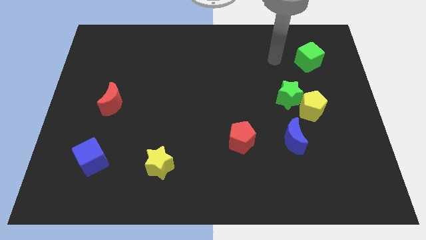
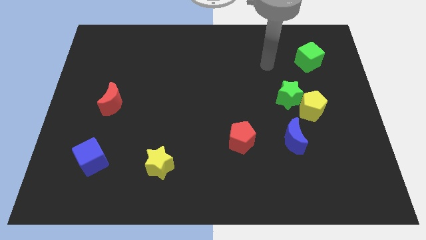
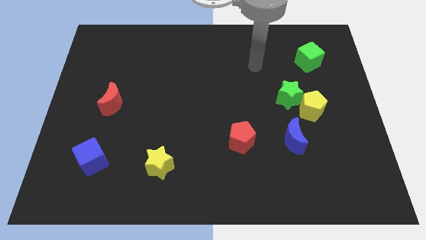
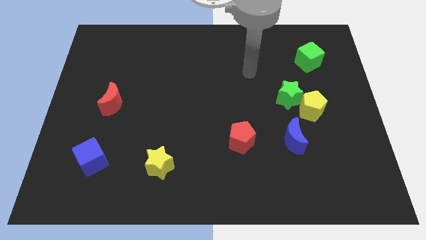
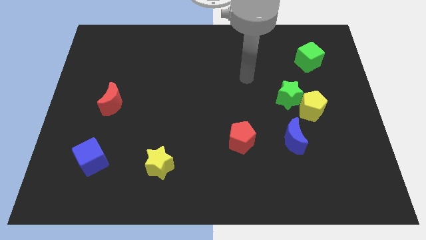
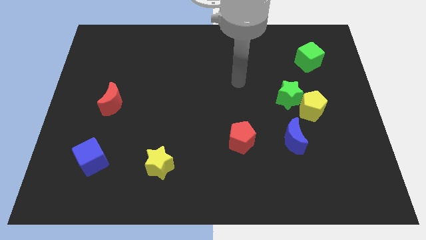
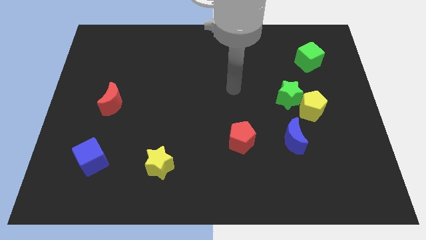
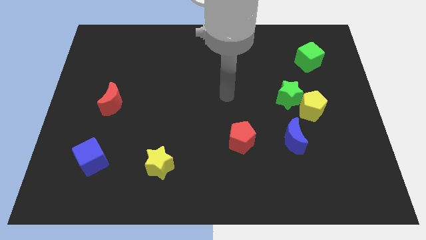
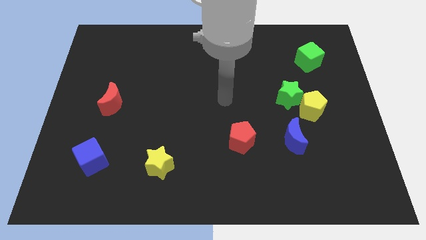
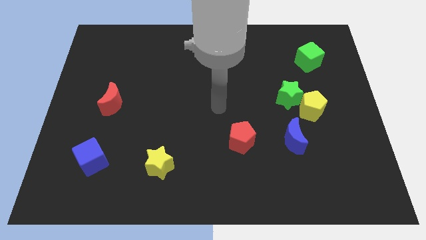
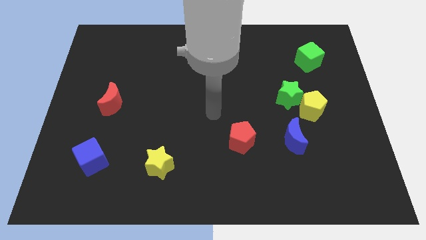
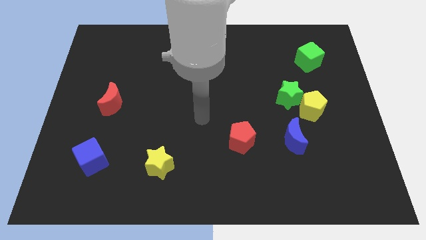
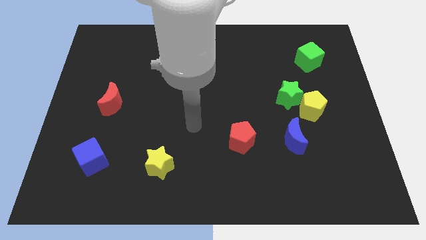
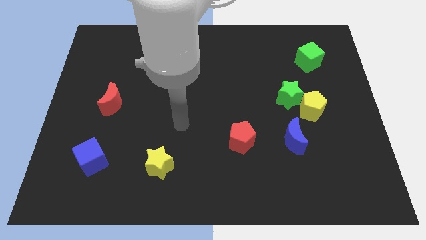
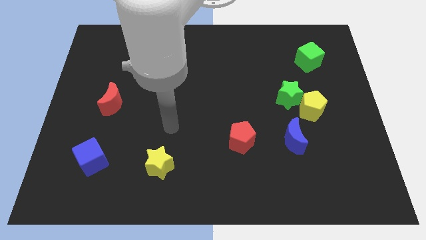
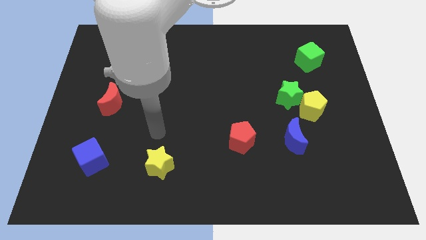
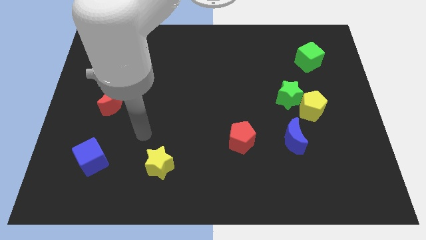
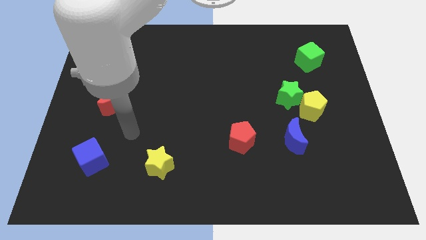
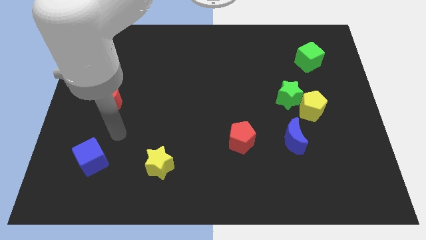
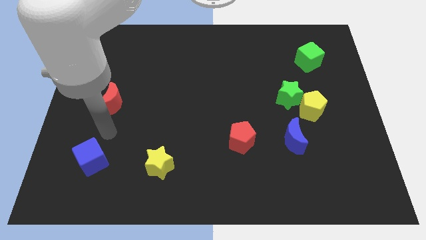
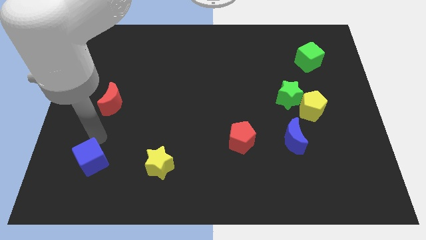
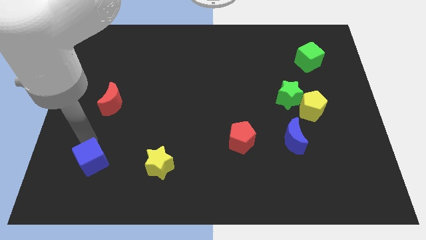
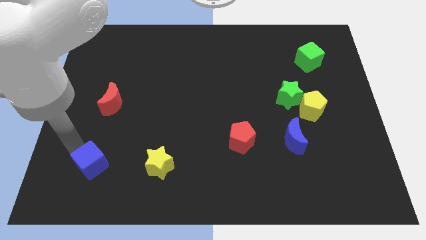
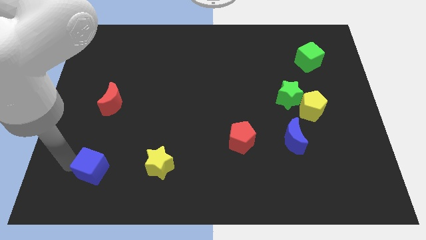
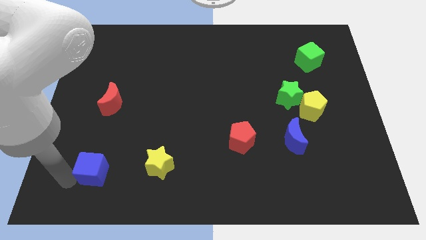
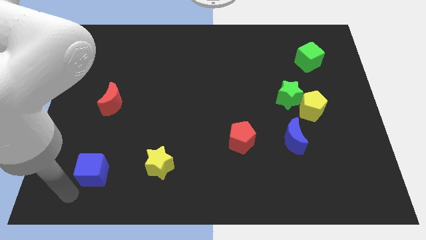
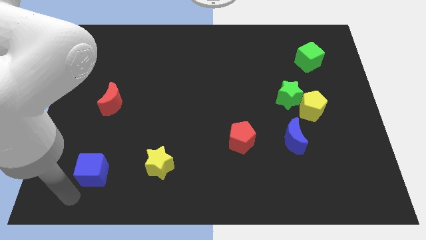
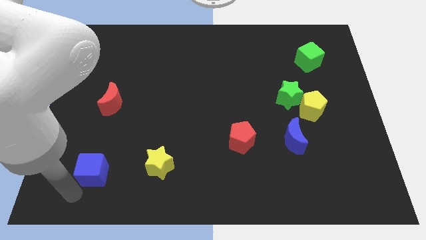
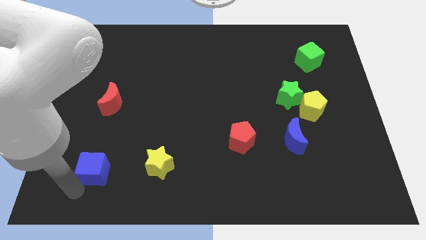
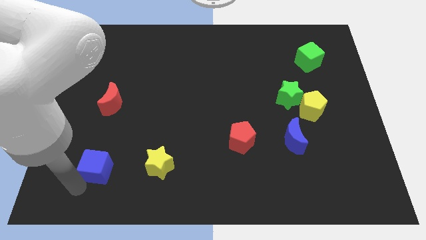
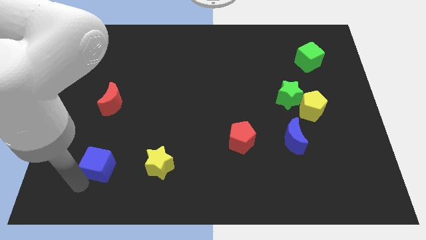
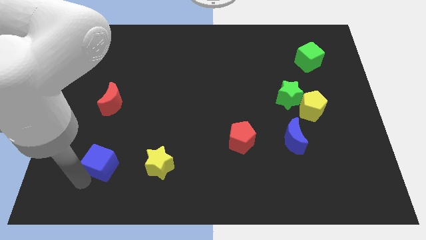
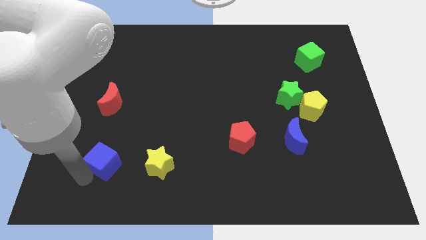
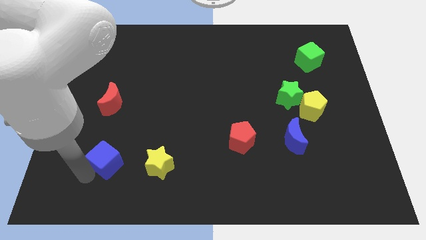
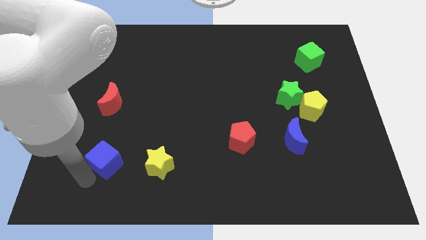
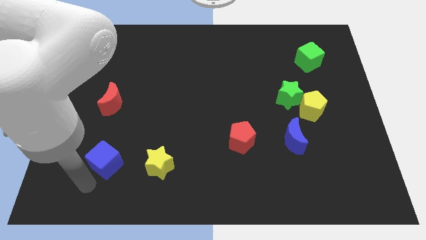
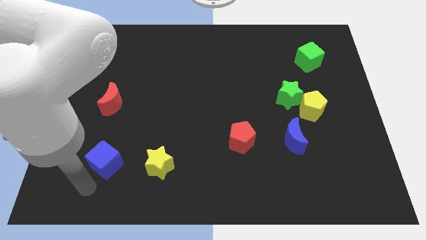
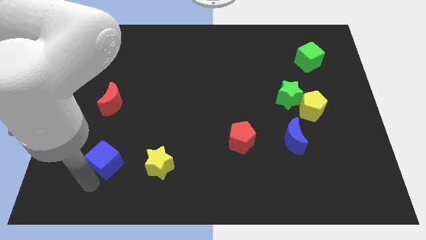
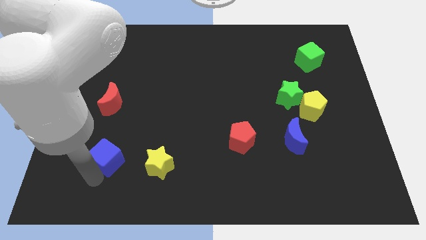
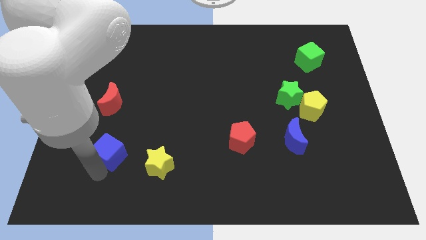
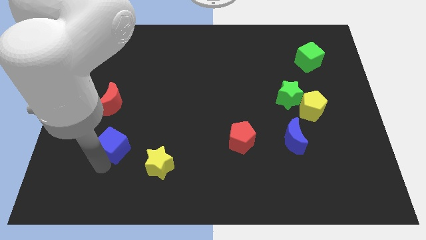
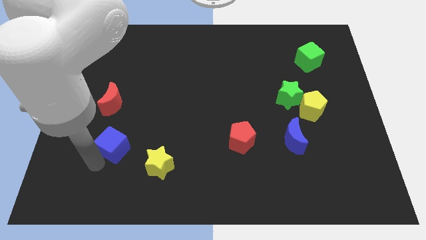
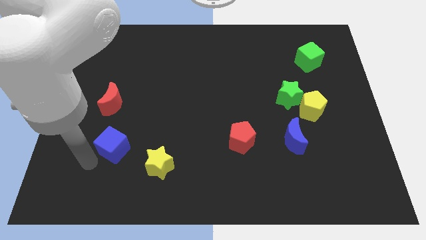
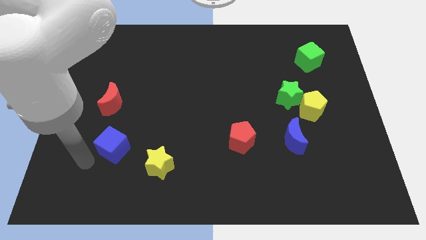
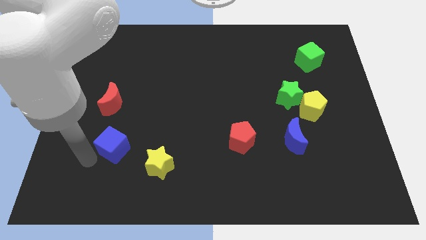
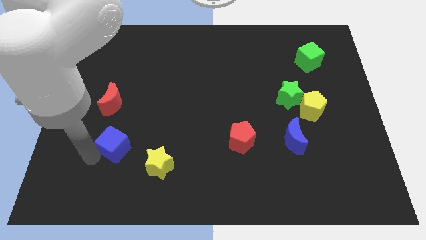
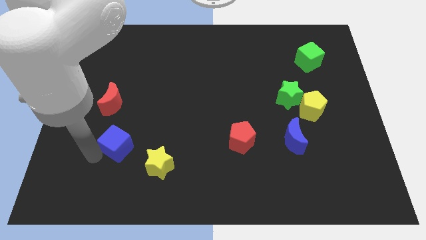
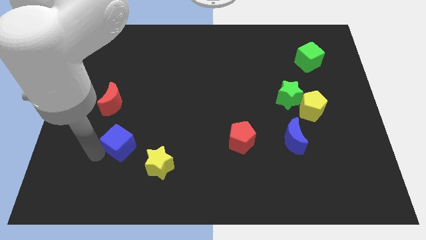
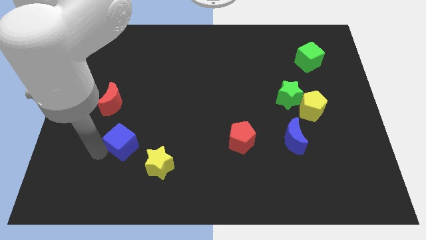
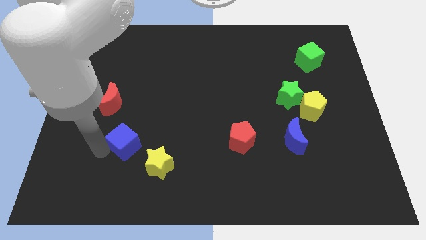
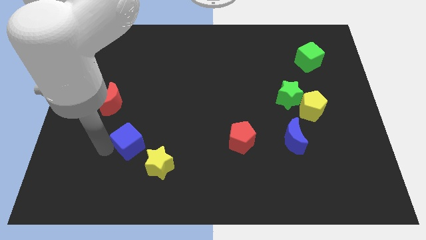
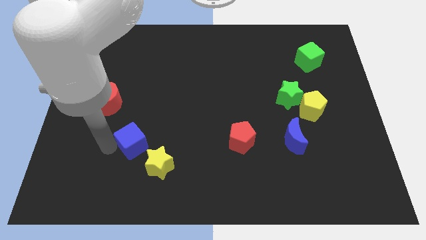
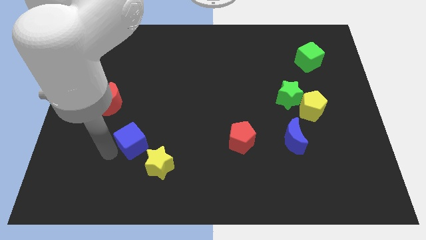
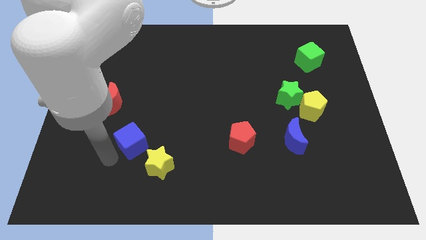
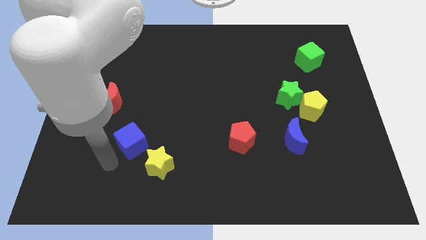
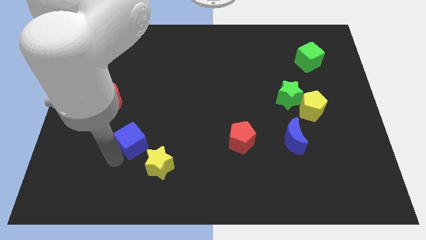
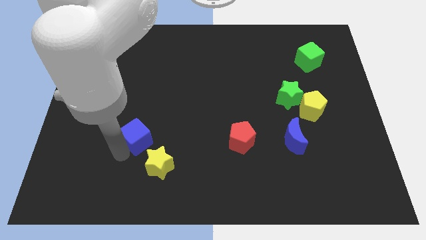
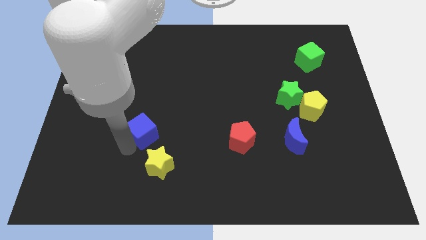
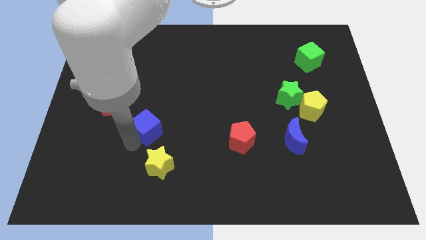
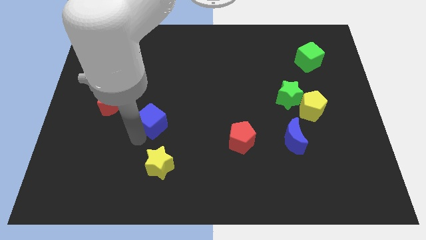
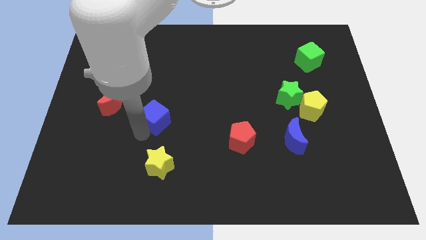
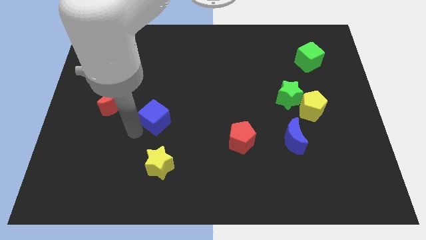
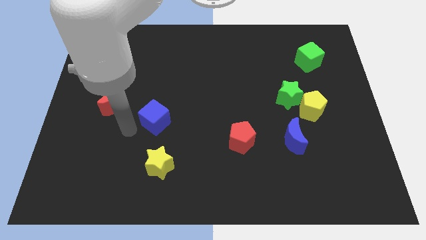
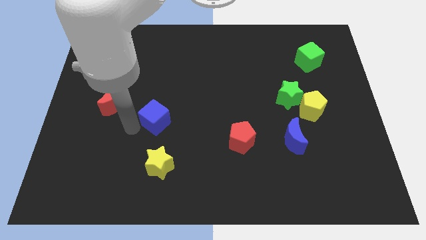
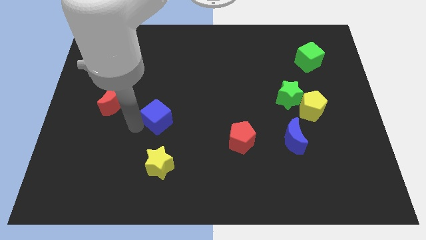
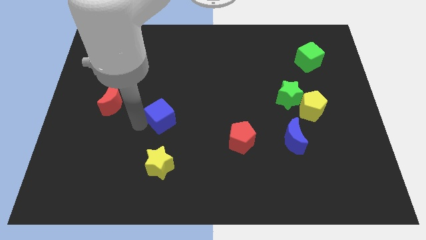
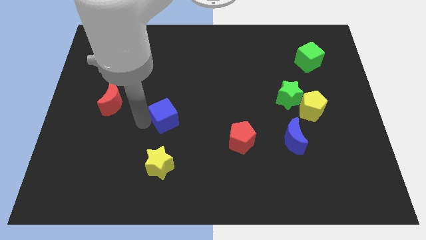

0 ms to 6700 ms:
push the blue cube to the middle of the board

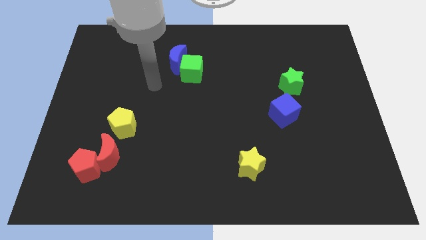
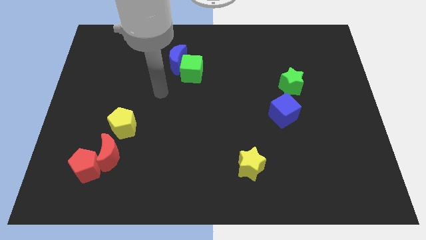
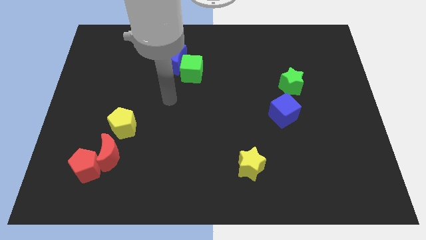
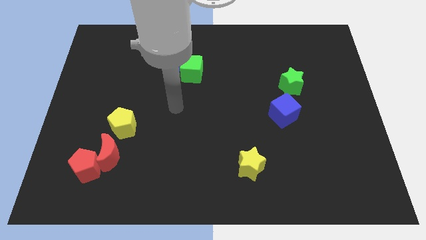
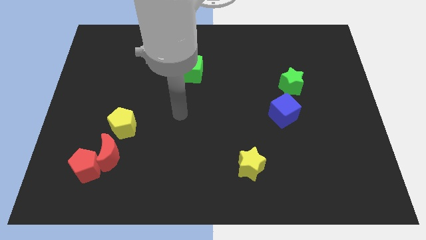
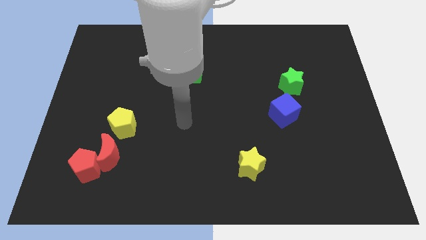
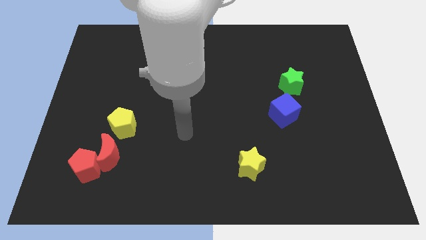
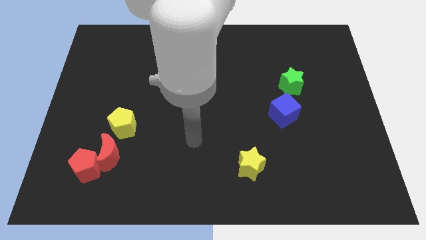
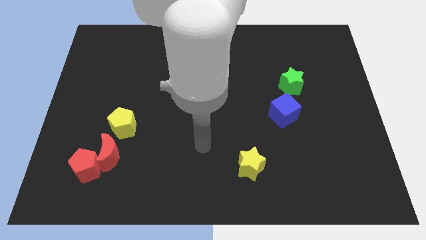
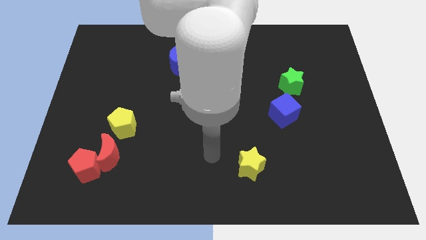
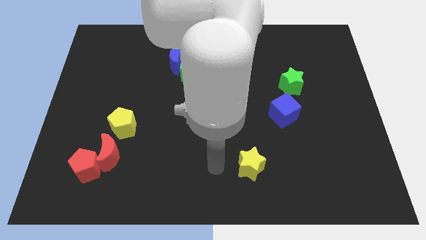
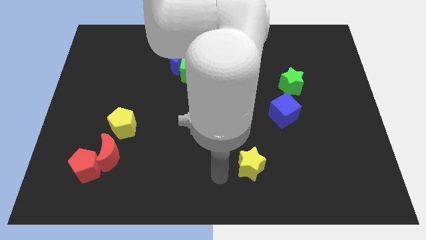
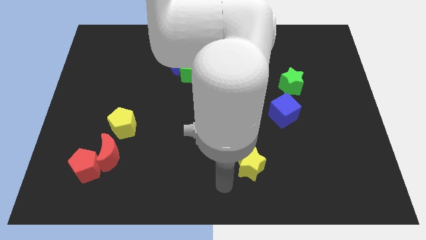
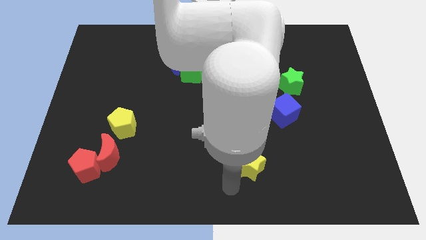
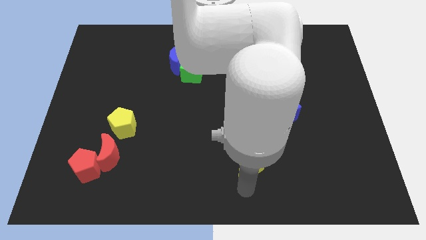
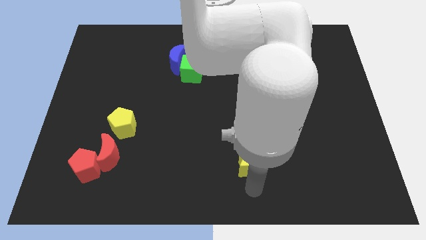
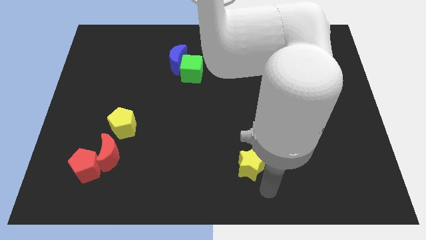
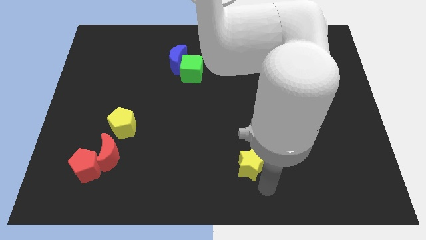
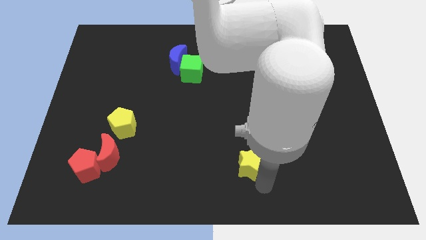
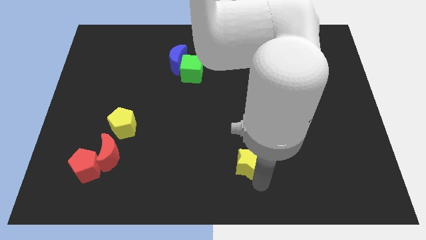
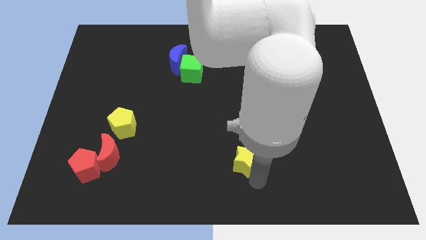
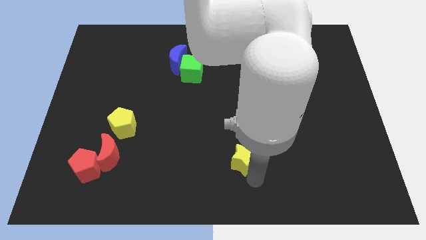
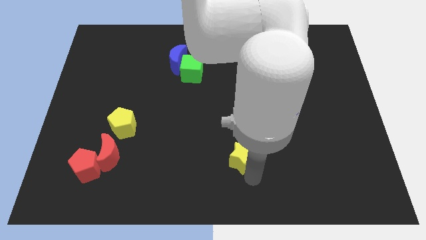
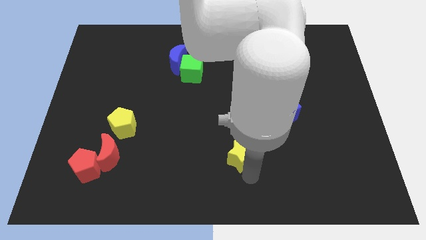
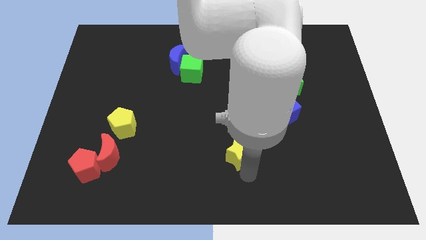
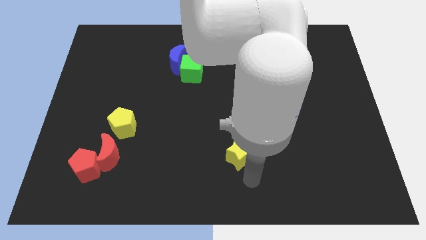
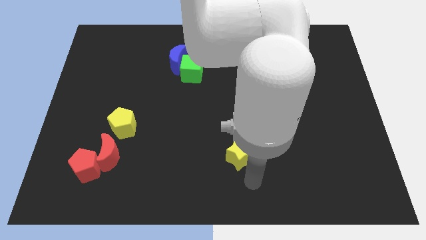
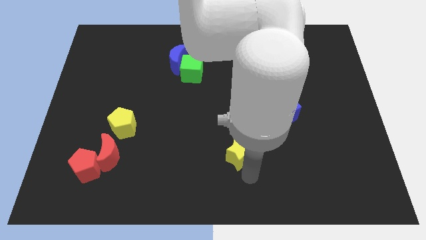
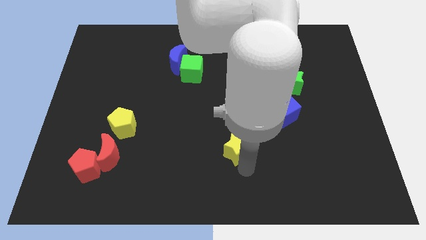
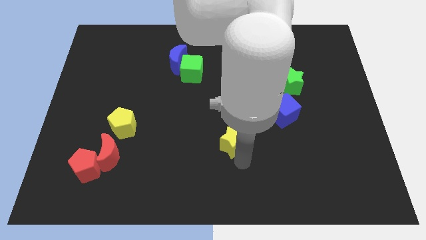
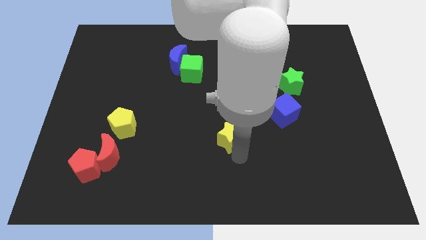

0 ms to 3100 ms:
push the yellow star to the center of the board
